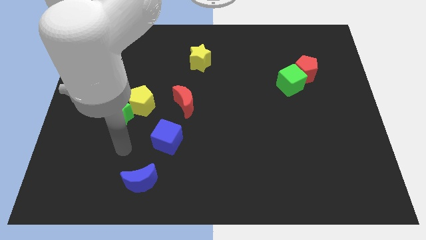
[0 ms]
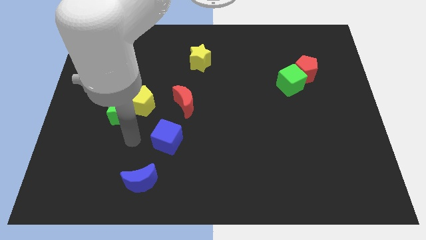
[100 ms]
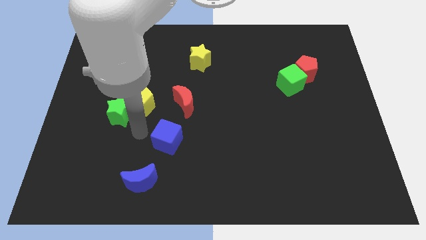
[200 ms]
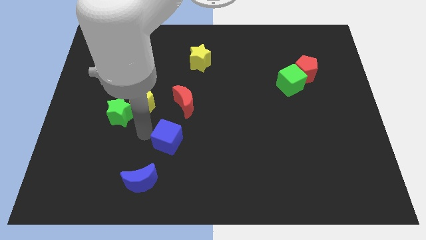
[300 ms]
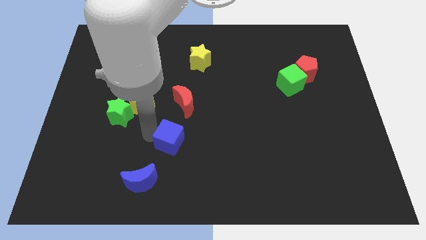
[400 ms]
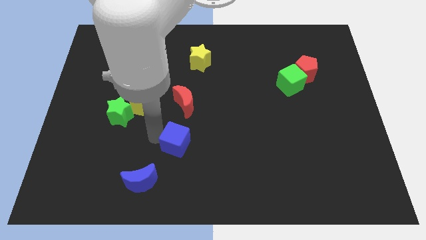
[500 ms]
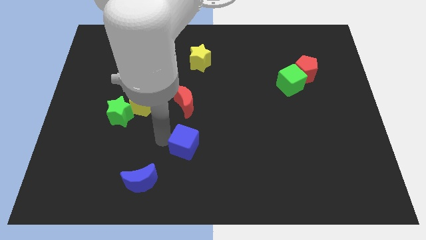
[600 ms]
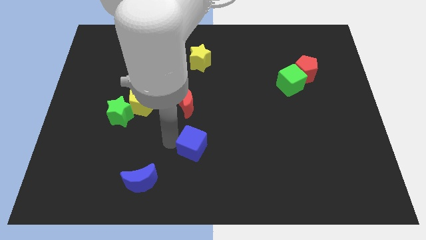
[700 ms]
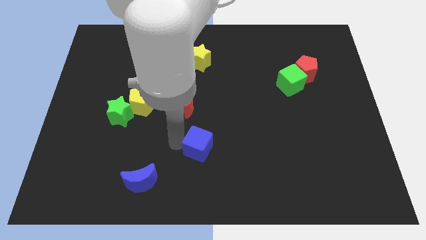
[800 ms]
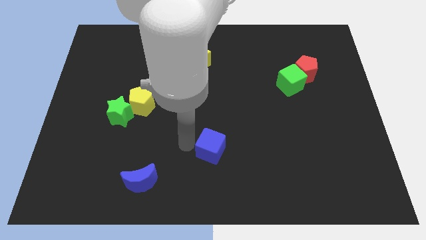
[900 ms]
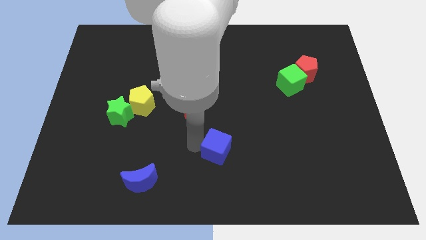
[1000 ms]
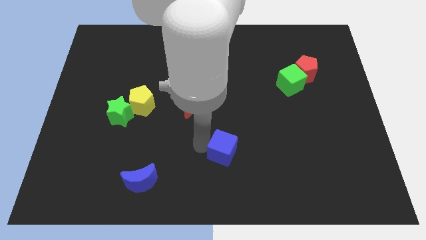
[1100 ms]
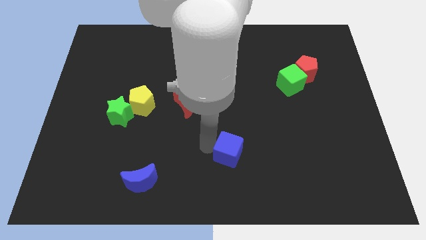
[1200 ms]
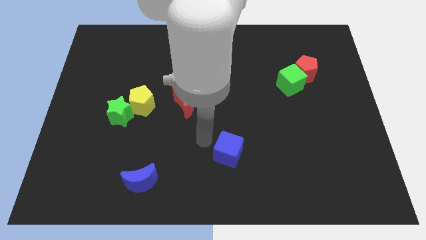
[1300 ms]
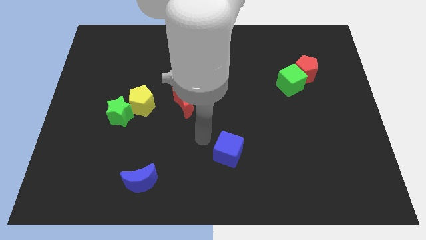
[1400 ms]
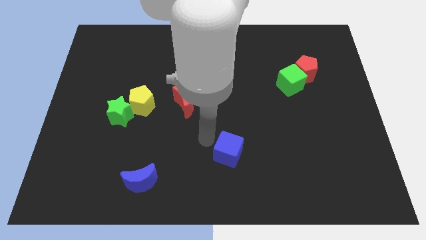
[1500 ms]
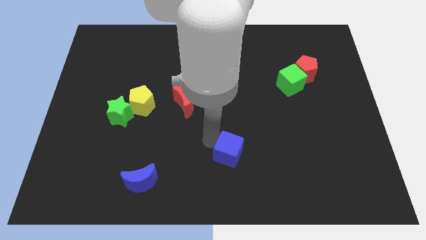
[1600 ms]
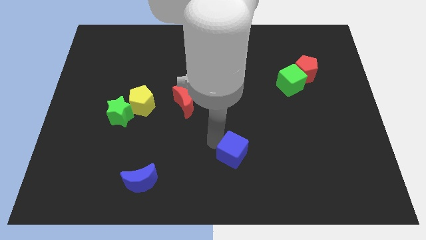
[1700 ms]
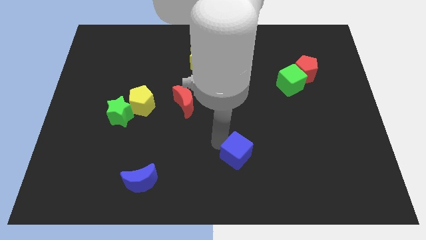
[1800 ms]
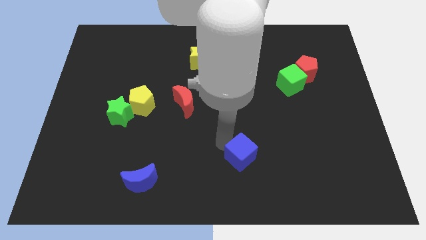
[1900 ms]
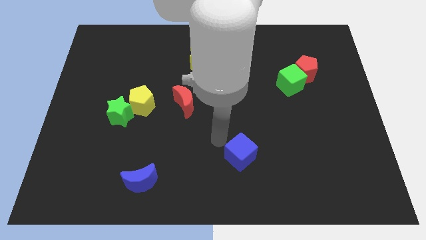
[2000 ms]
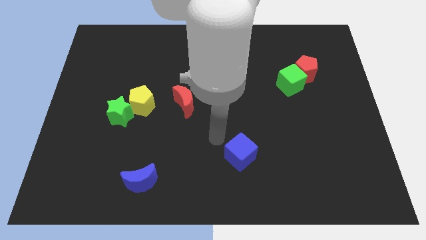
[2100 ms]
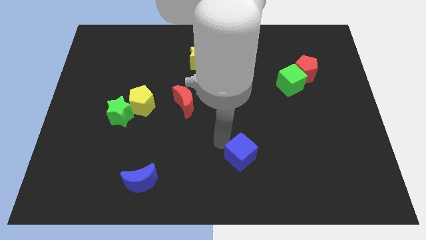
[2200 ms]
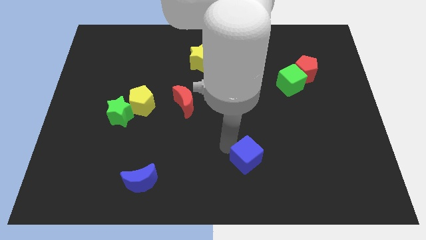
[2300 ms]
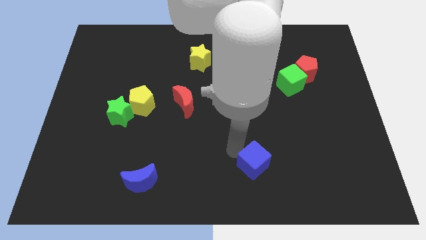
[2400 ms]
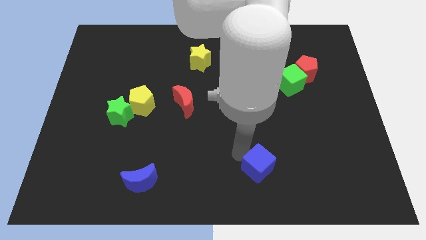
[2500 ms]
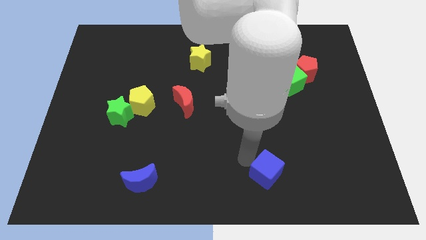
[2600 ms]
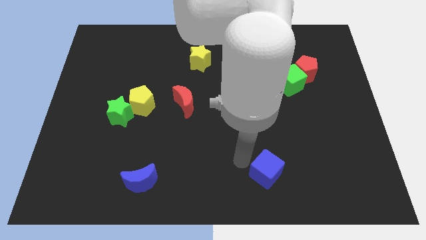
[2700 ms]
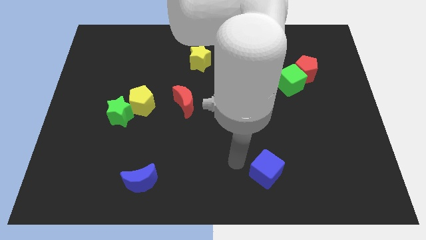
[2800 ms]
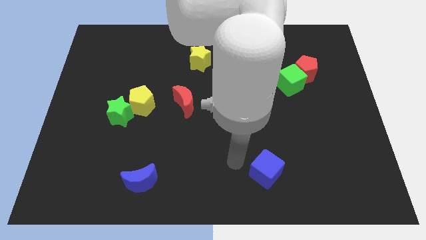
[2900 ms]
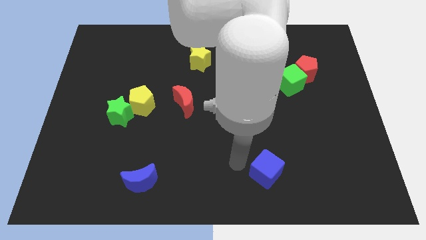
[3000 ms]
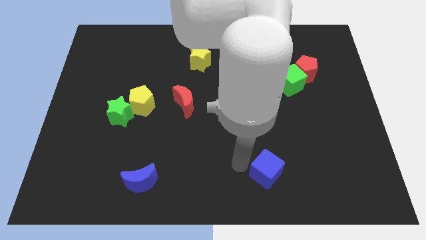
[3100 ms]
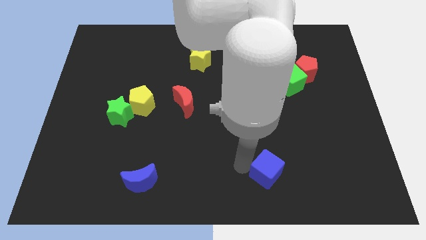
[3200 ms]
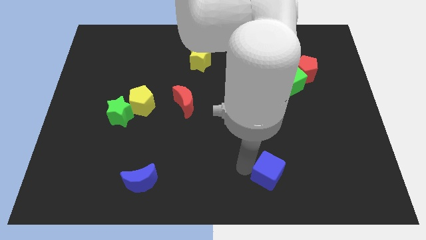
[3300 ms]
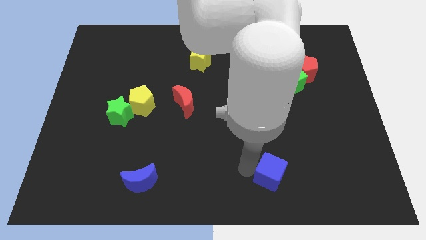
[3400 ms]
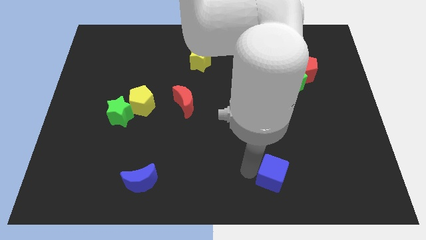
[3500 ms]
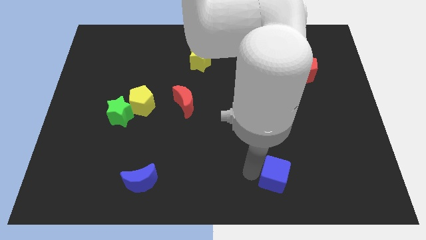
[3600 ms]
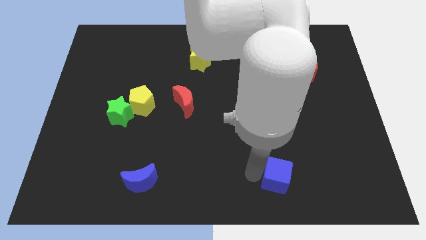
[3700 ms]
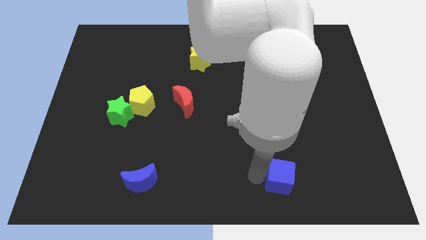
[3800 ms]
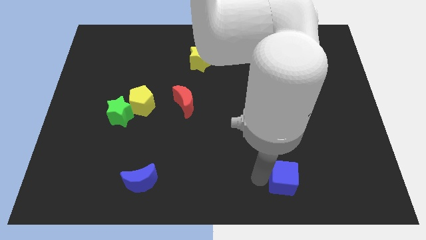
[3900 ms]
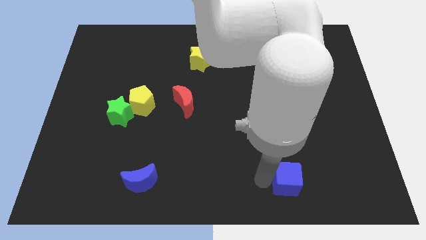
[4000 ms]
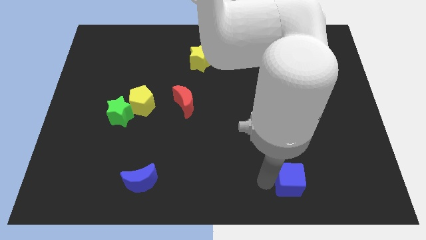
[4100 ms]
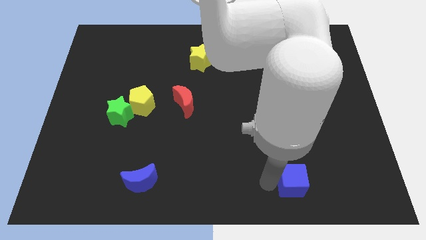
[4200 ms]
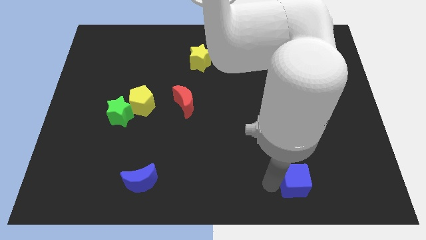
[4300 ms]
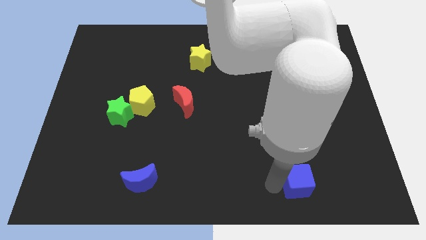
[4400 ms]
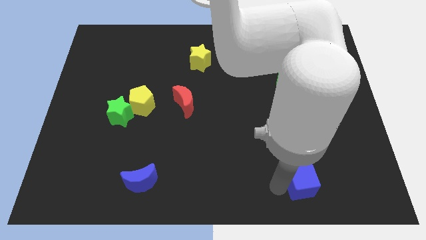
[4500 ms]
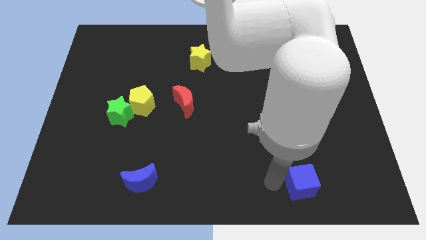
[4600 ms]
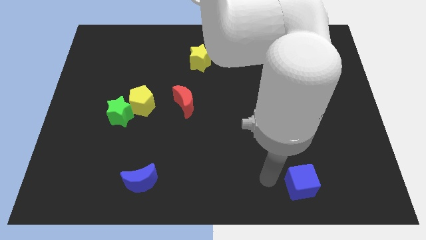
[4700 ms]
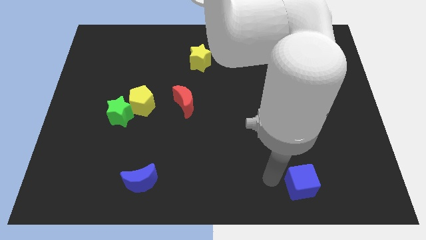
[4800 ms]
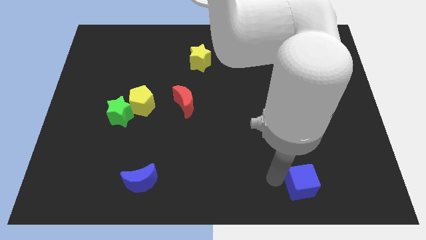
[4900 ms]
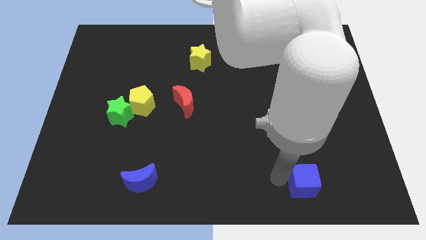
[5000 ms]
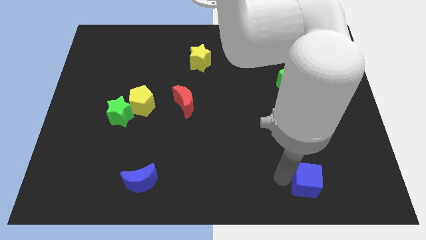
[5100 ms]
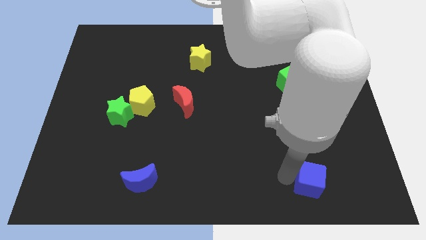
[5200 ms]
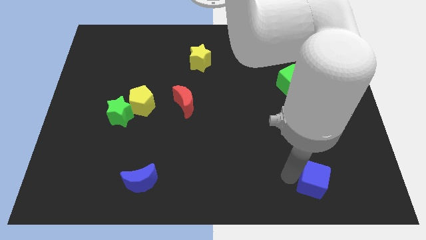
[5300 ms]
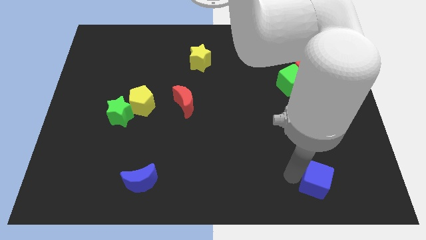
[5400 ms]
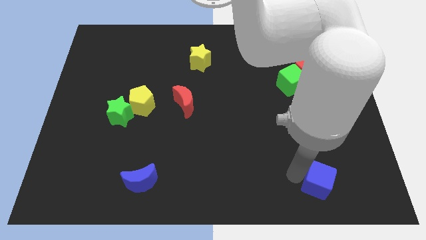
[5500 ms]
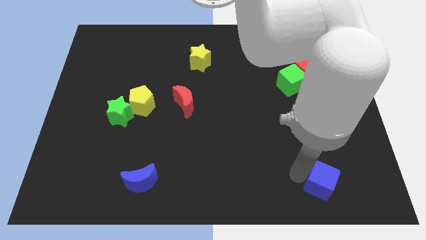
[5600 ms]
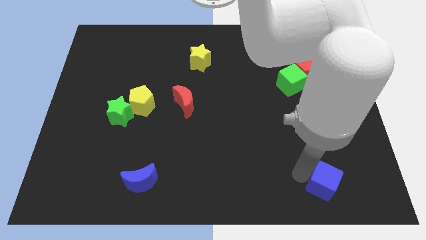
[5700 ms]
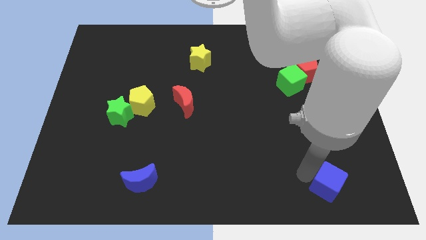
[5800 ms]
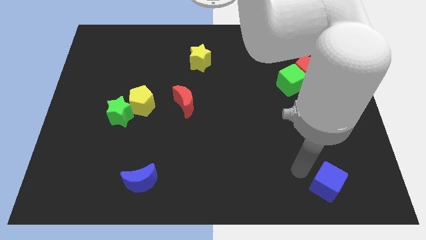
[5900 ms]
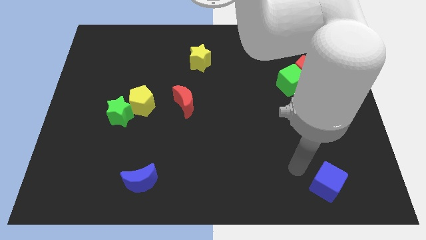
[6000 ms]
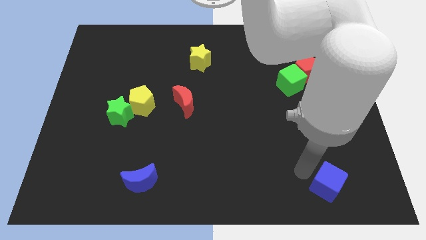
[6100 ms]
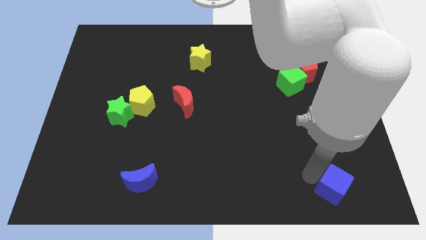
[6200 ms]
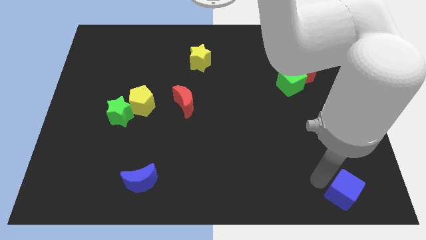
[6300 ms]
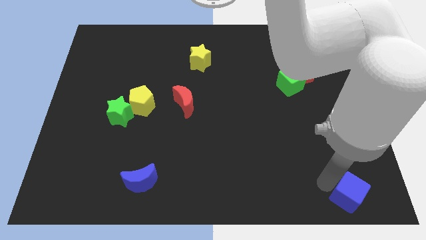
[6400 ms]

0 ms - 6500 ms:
put the blue cube to the bottom right corner
